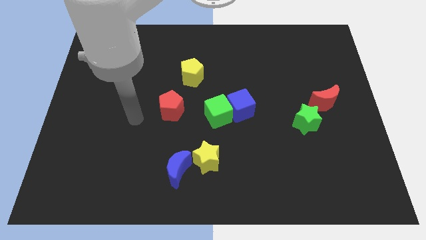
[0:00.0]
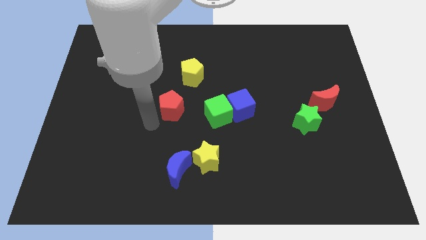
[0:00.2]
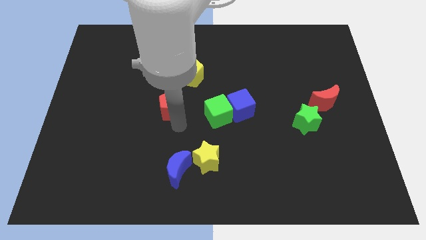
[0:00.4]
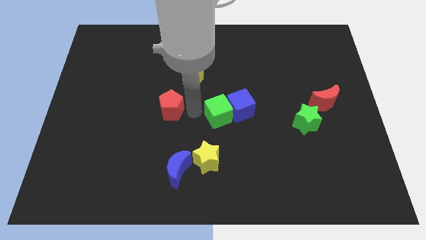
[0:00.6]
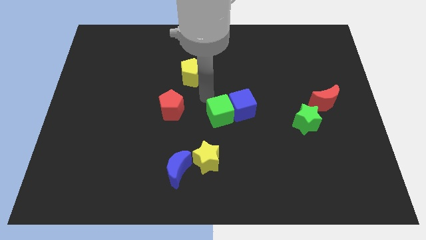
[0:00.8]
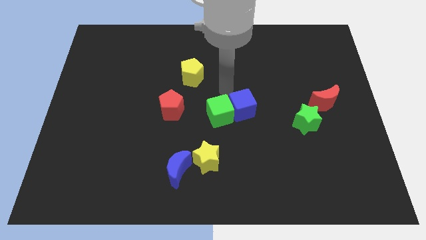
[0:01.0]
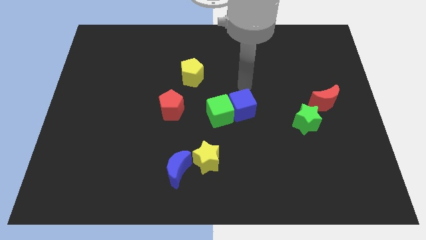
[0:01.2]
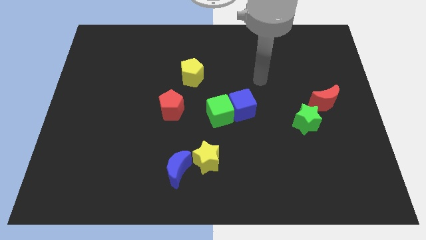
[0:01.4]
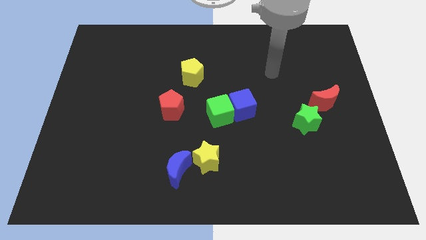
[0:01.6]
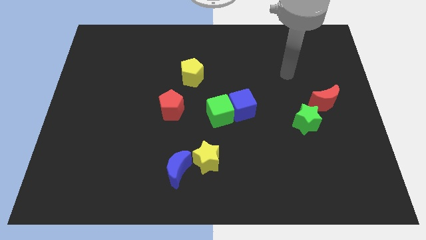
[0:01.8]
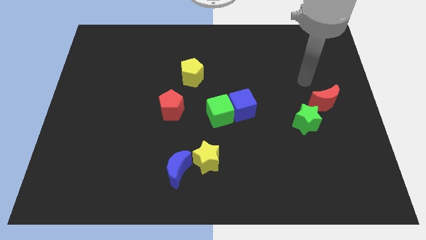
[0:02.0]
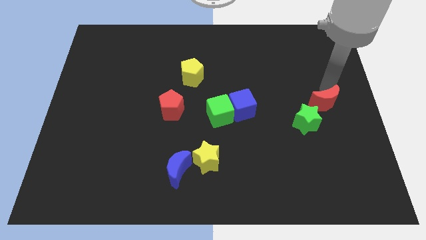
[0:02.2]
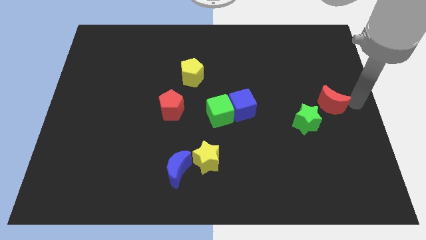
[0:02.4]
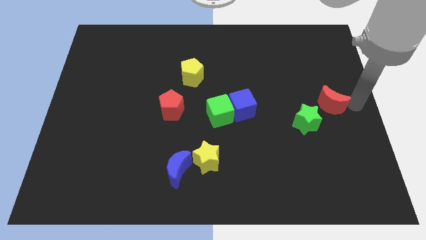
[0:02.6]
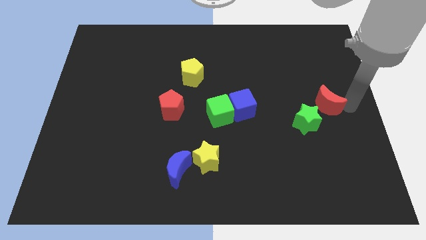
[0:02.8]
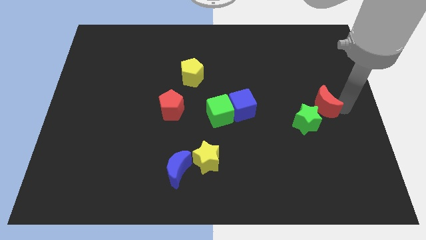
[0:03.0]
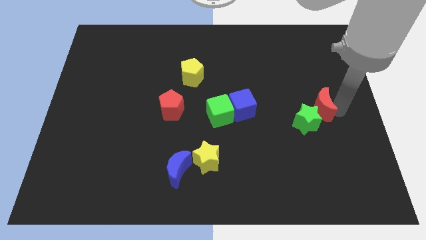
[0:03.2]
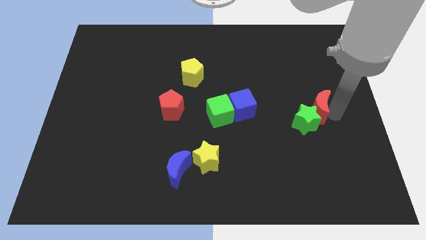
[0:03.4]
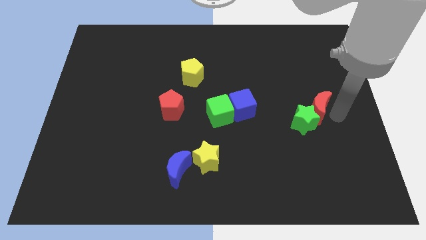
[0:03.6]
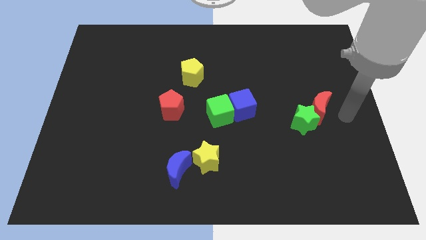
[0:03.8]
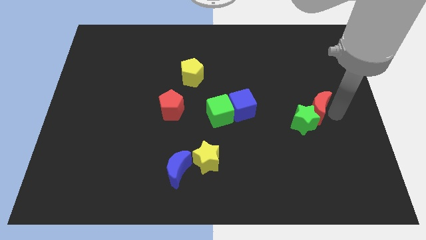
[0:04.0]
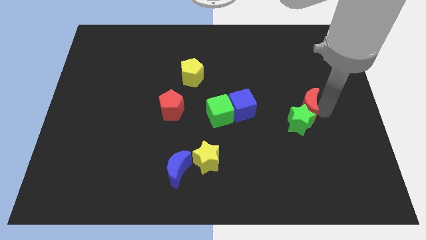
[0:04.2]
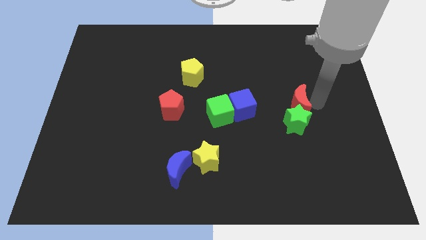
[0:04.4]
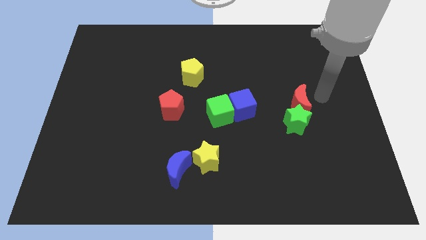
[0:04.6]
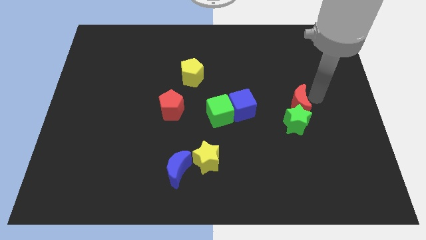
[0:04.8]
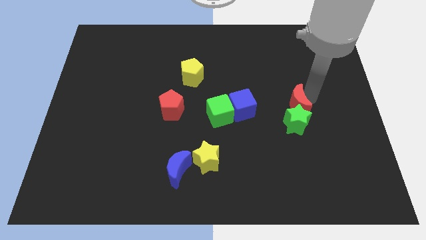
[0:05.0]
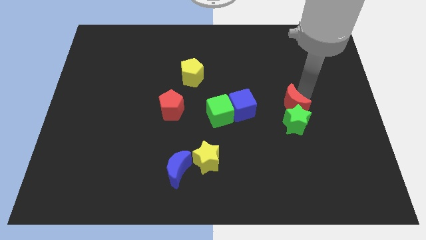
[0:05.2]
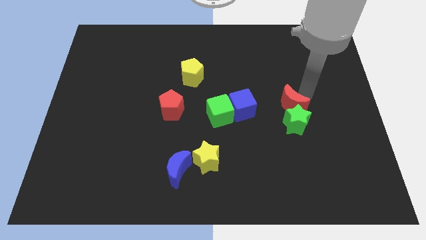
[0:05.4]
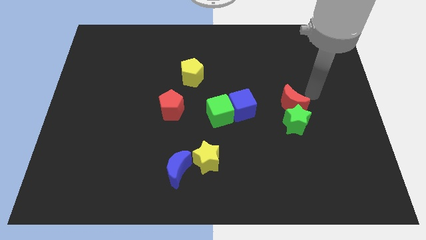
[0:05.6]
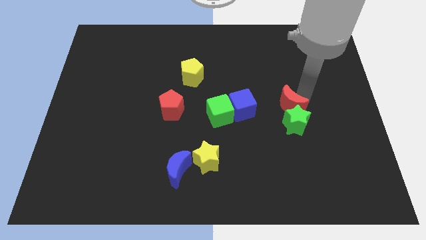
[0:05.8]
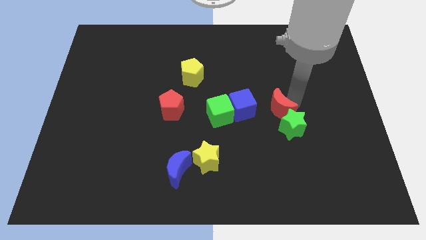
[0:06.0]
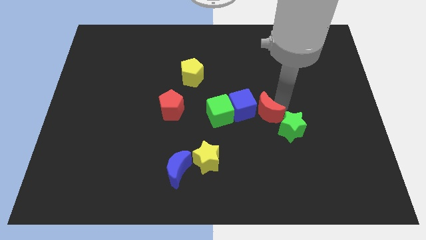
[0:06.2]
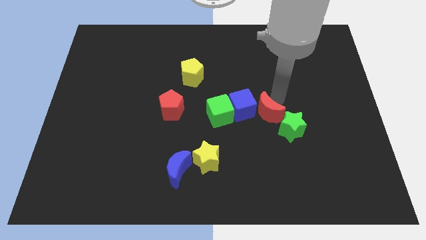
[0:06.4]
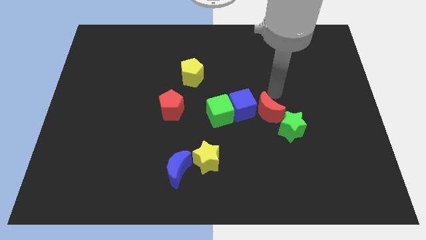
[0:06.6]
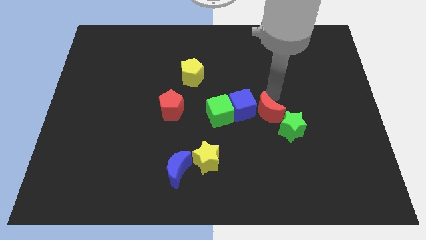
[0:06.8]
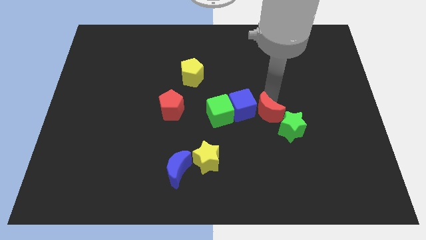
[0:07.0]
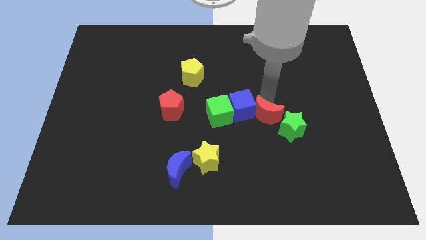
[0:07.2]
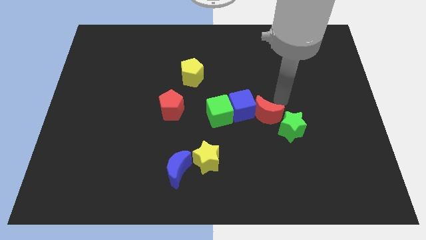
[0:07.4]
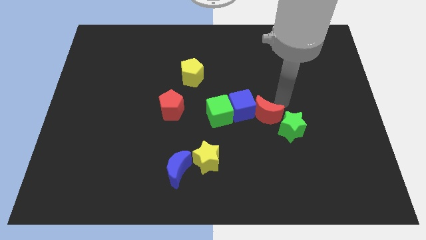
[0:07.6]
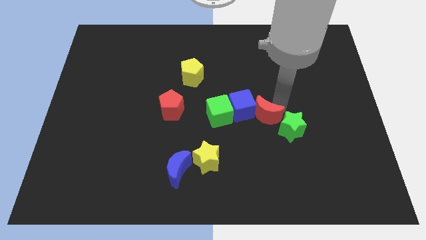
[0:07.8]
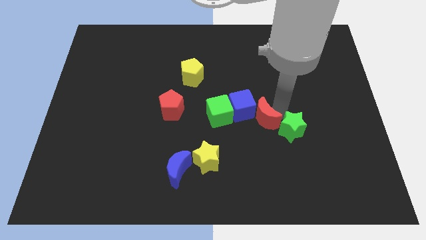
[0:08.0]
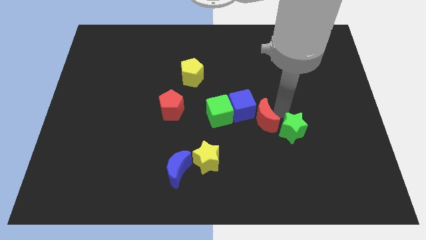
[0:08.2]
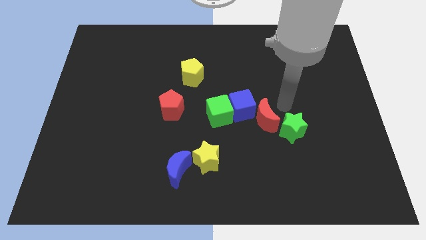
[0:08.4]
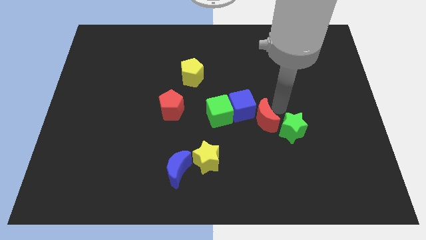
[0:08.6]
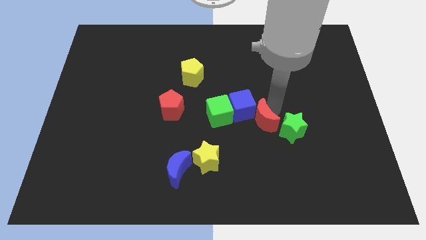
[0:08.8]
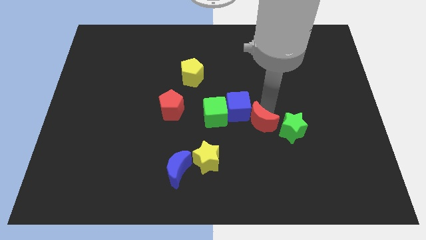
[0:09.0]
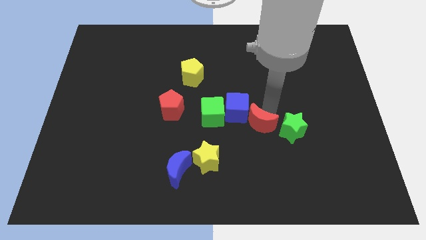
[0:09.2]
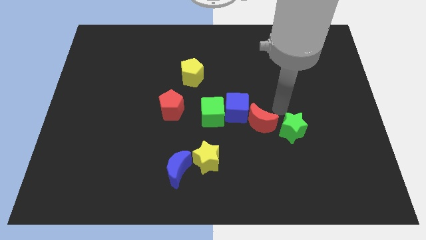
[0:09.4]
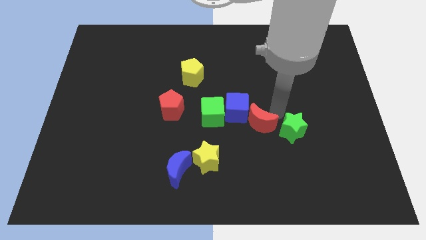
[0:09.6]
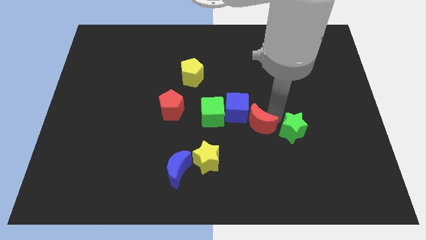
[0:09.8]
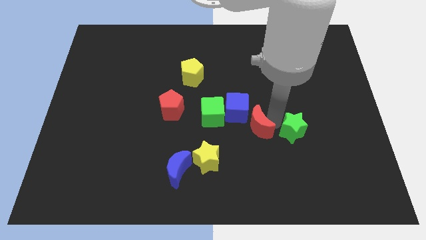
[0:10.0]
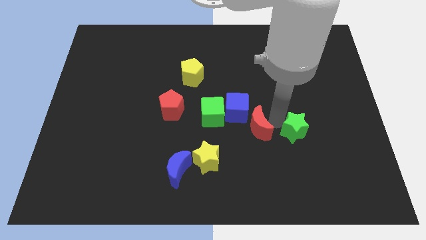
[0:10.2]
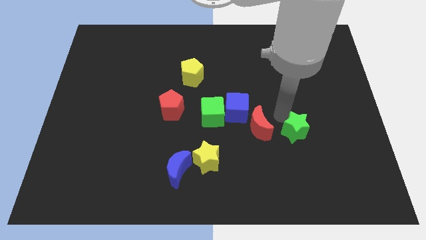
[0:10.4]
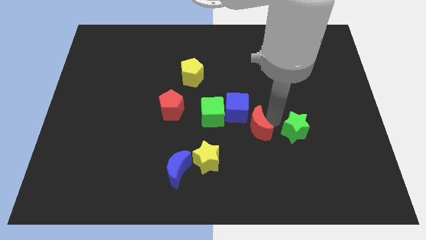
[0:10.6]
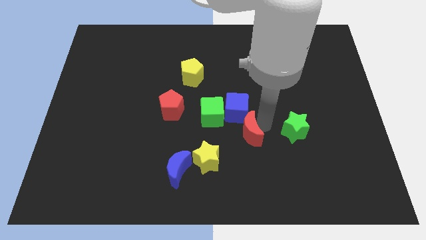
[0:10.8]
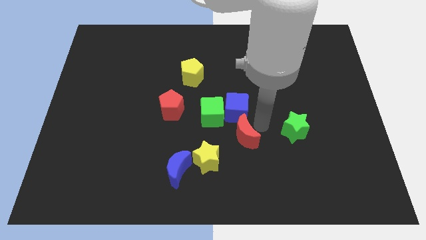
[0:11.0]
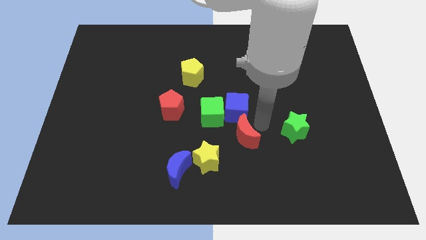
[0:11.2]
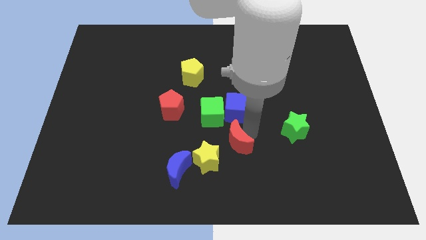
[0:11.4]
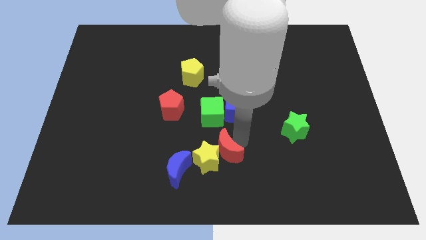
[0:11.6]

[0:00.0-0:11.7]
move the red moon next to the yellow star

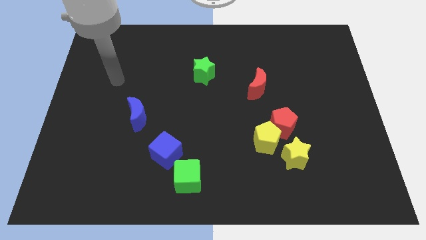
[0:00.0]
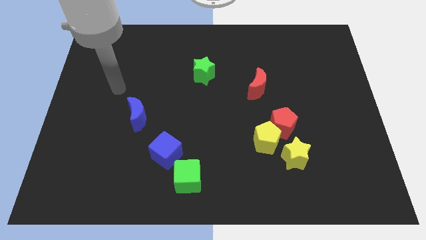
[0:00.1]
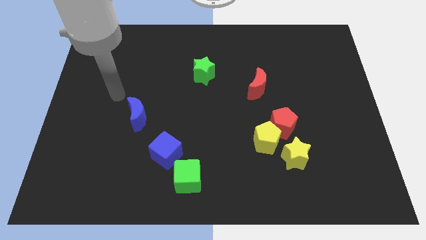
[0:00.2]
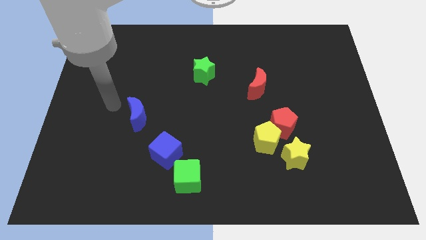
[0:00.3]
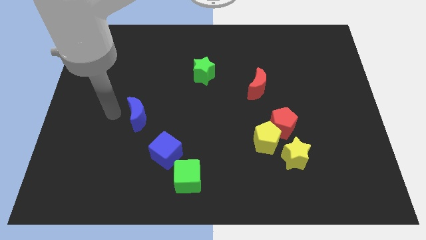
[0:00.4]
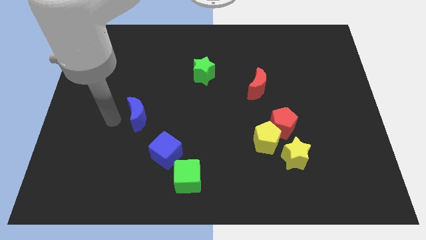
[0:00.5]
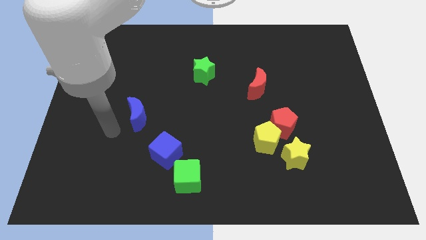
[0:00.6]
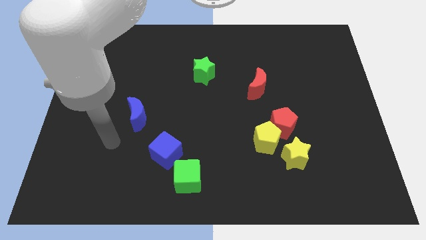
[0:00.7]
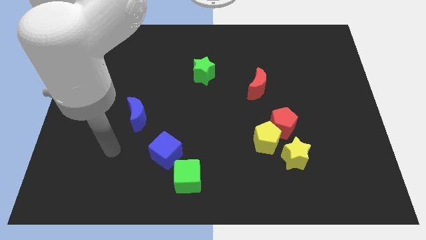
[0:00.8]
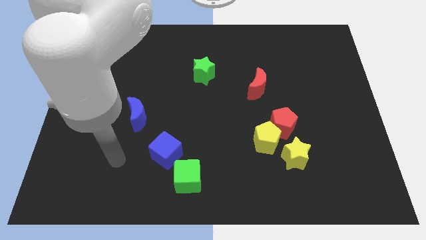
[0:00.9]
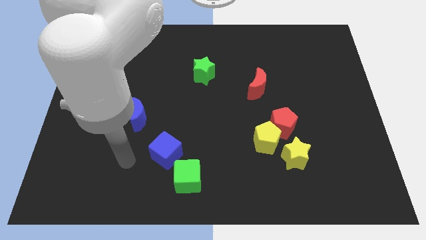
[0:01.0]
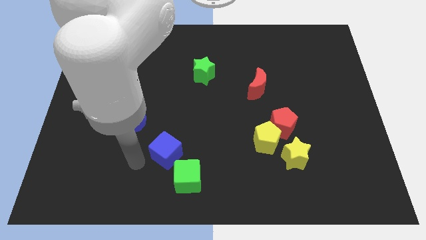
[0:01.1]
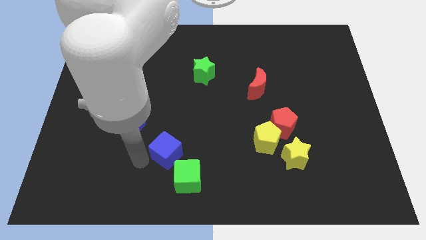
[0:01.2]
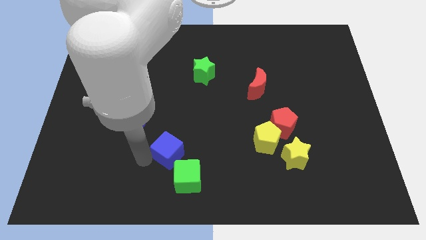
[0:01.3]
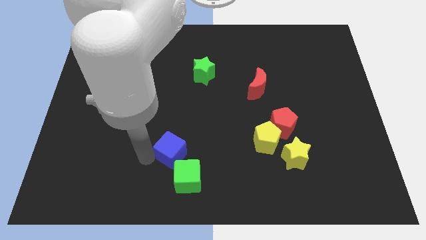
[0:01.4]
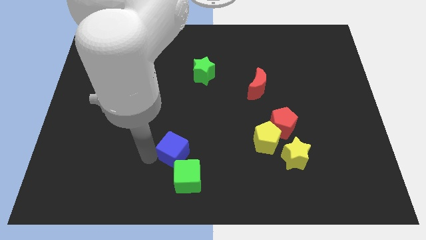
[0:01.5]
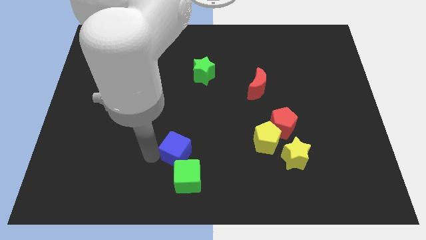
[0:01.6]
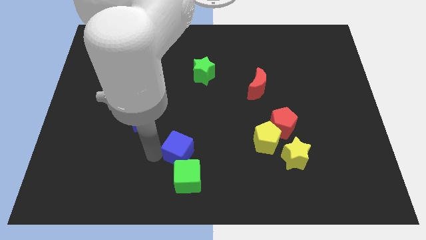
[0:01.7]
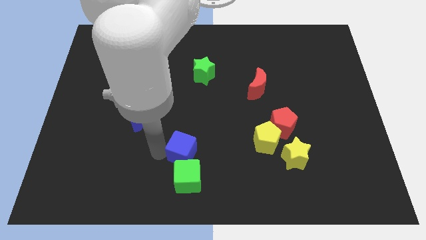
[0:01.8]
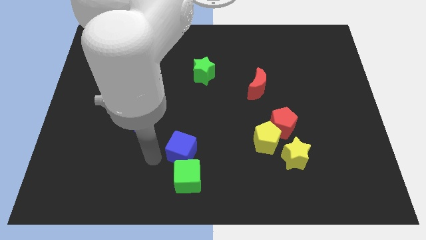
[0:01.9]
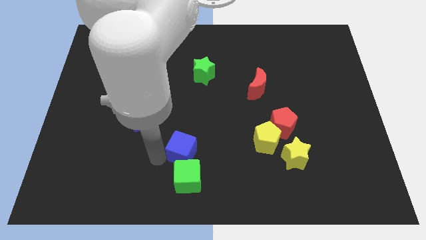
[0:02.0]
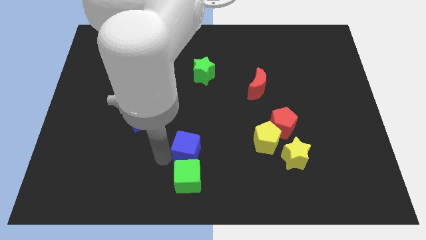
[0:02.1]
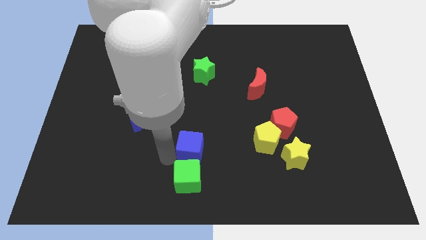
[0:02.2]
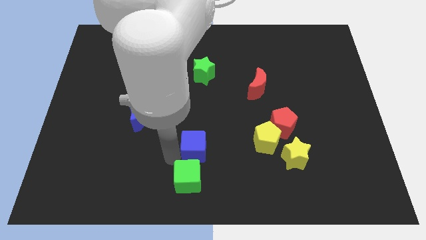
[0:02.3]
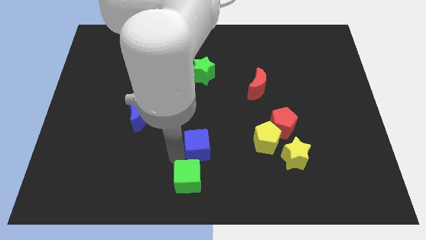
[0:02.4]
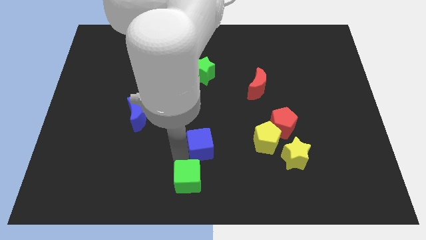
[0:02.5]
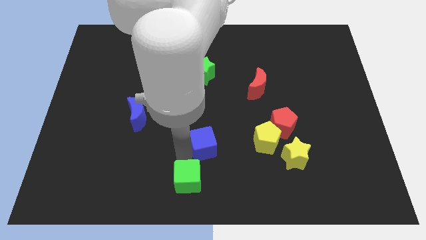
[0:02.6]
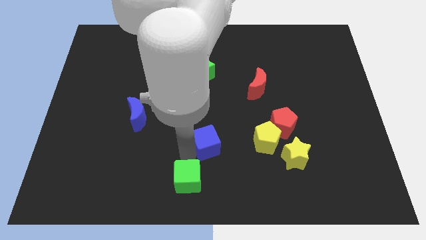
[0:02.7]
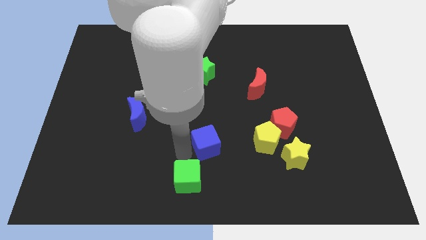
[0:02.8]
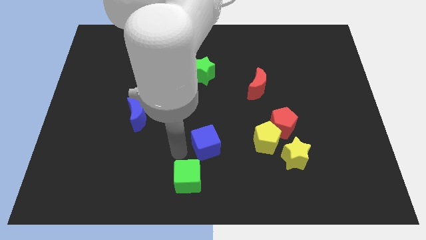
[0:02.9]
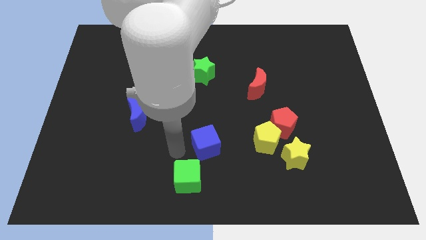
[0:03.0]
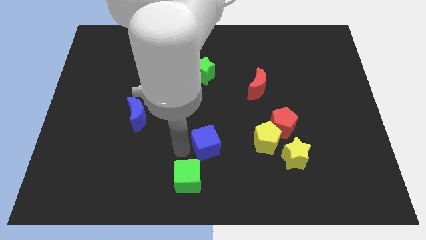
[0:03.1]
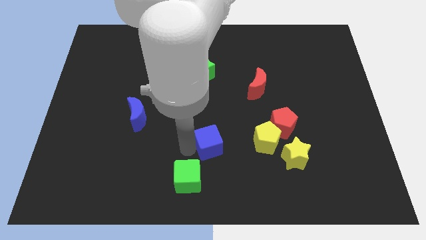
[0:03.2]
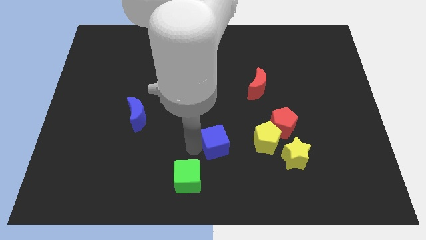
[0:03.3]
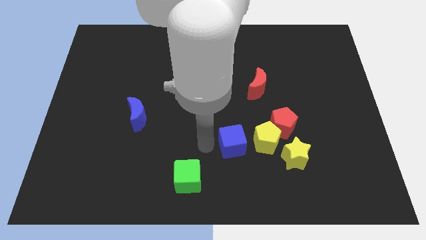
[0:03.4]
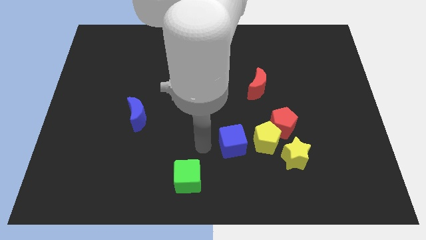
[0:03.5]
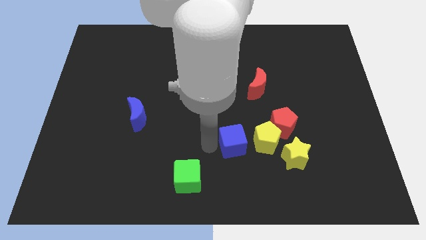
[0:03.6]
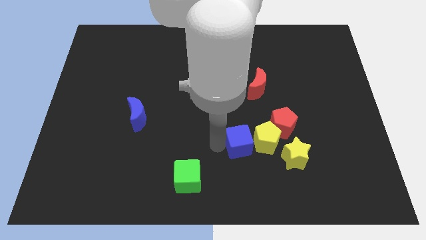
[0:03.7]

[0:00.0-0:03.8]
put the blue cube towards the yellow pentagon
